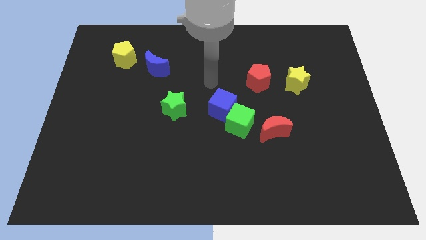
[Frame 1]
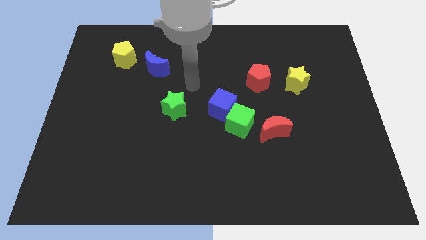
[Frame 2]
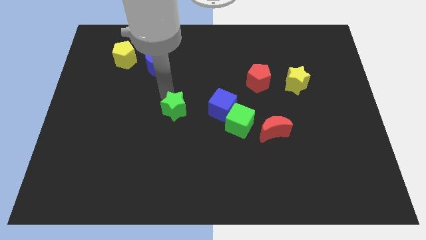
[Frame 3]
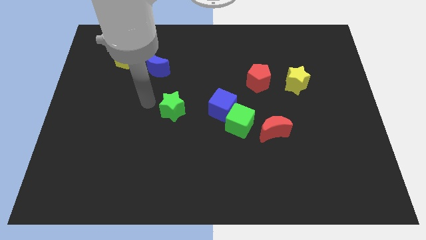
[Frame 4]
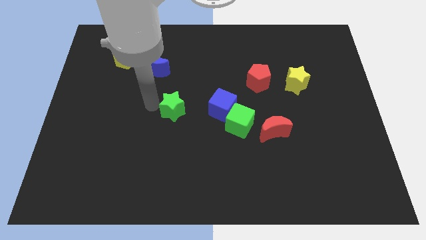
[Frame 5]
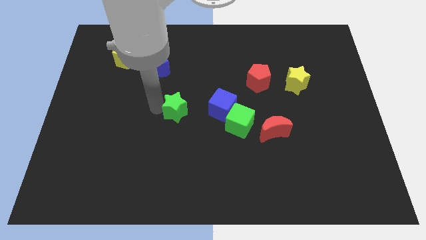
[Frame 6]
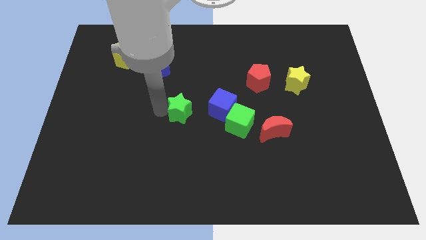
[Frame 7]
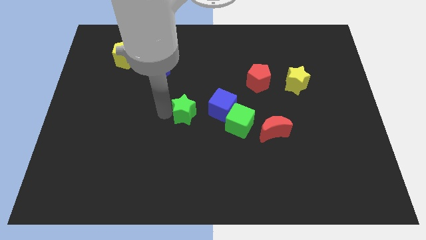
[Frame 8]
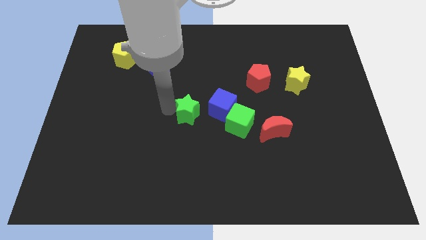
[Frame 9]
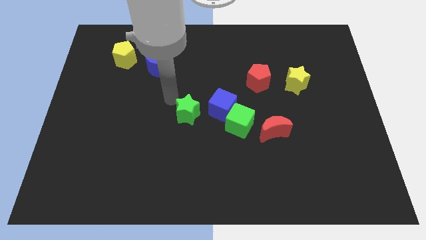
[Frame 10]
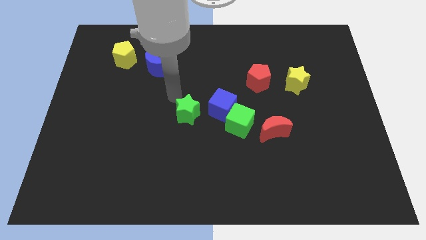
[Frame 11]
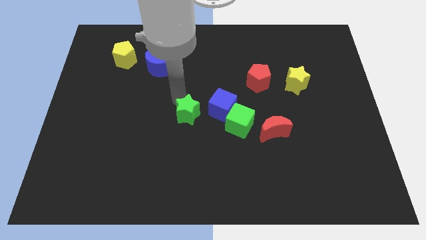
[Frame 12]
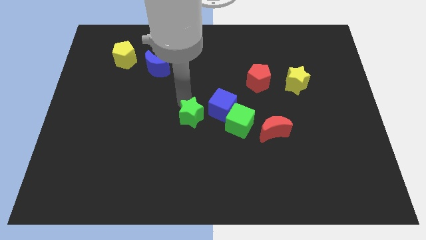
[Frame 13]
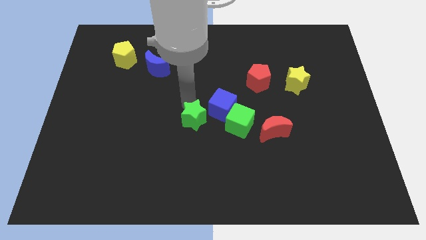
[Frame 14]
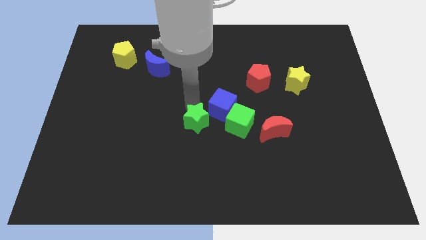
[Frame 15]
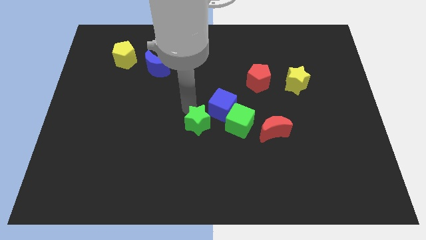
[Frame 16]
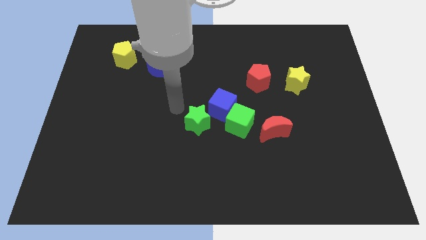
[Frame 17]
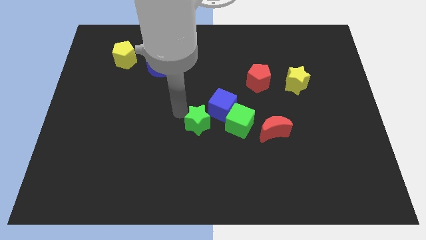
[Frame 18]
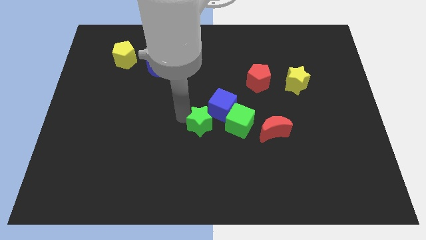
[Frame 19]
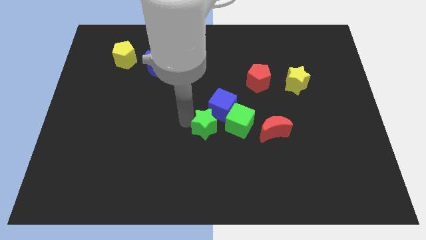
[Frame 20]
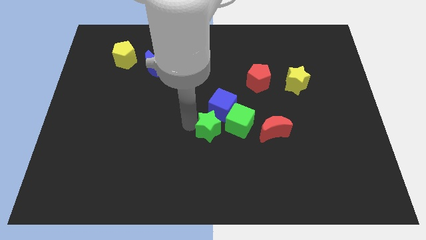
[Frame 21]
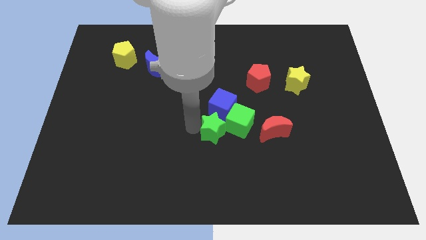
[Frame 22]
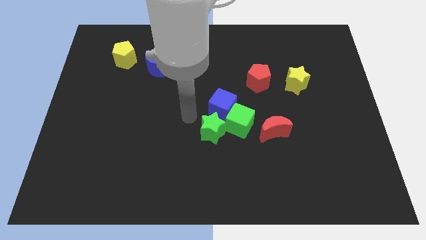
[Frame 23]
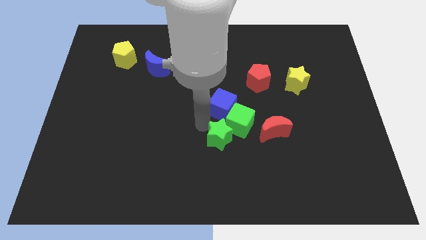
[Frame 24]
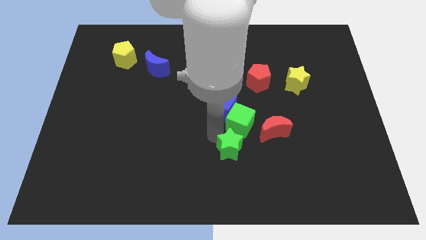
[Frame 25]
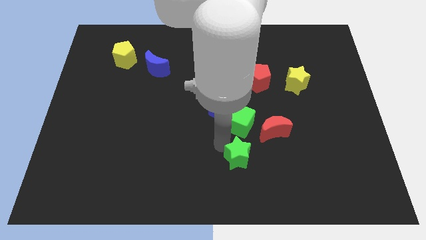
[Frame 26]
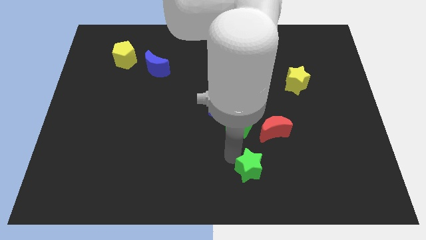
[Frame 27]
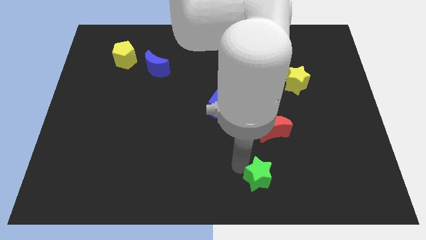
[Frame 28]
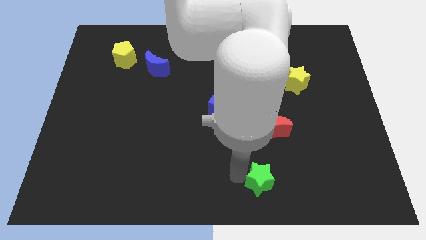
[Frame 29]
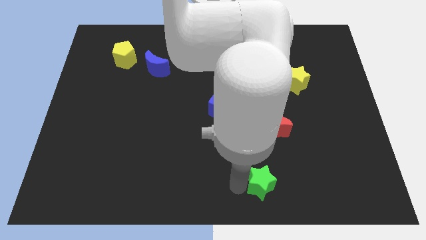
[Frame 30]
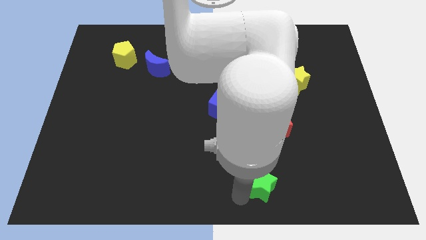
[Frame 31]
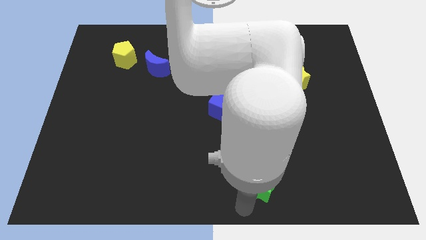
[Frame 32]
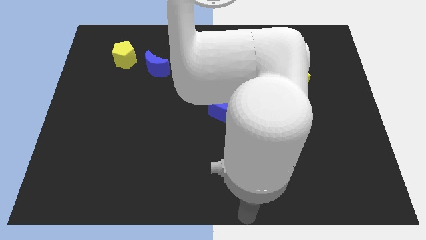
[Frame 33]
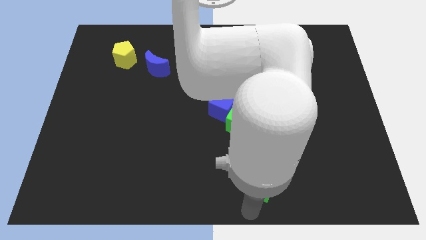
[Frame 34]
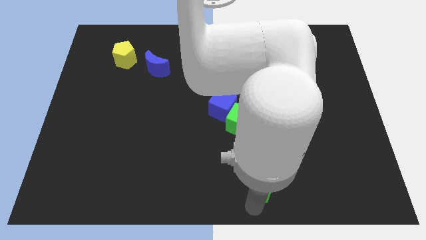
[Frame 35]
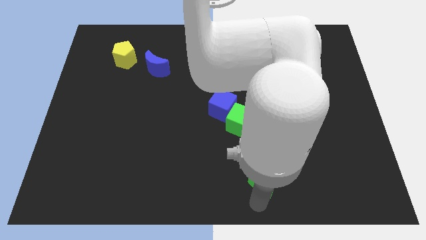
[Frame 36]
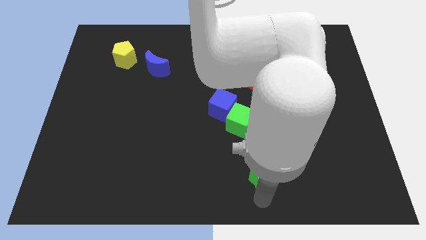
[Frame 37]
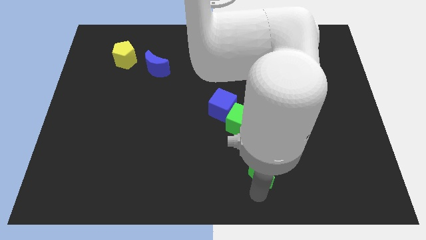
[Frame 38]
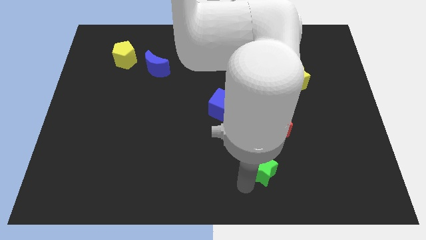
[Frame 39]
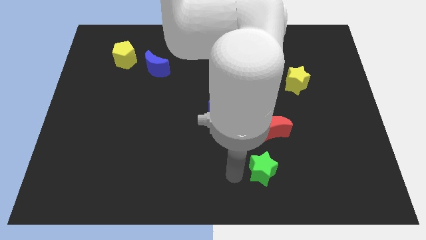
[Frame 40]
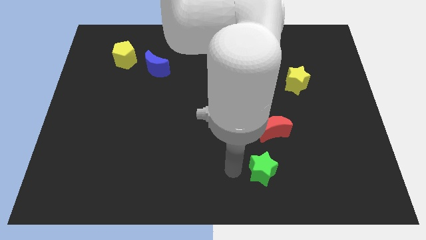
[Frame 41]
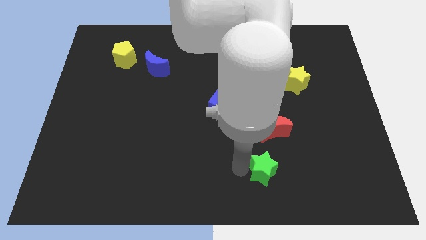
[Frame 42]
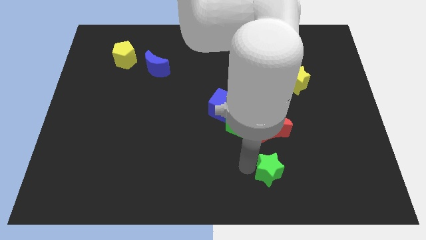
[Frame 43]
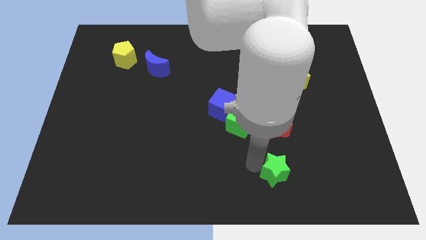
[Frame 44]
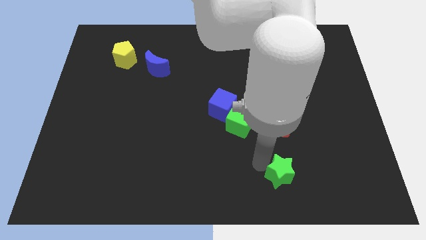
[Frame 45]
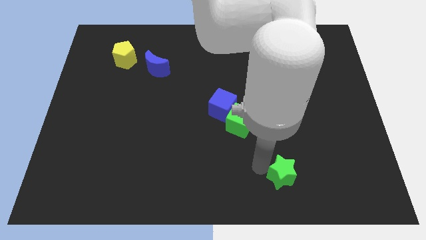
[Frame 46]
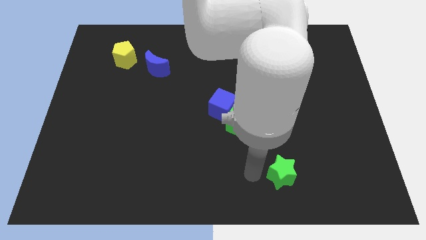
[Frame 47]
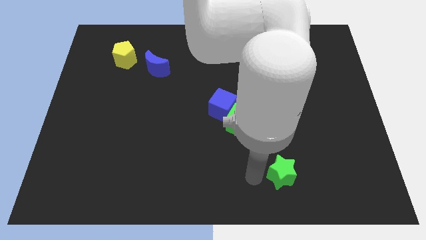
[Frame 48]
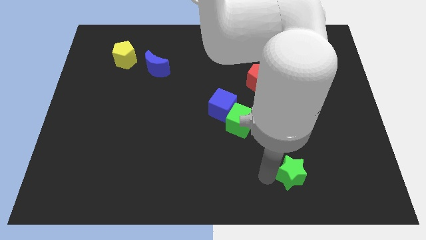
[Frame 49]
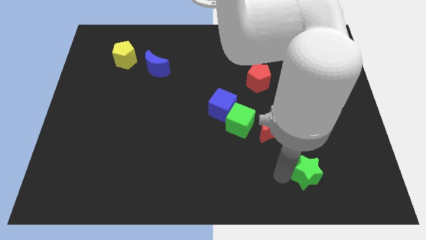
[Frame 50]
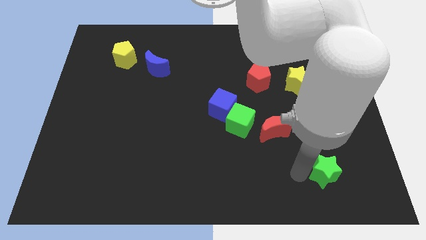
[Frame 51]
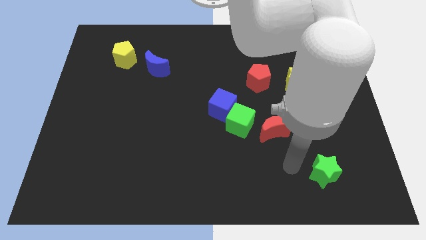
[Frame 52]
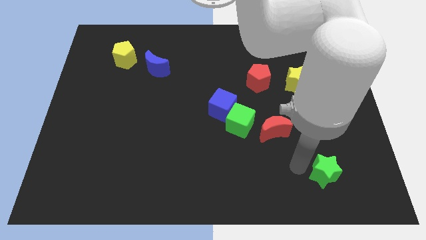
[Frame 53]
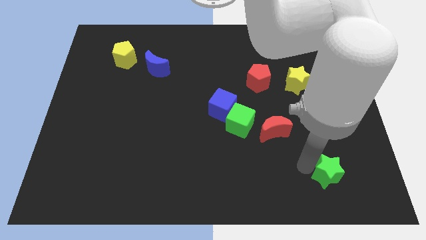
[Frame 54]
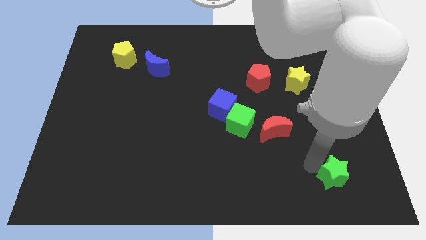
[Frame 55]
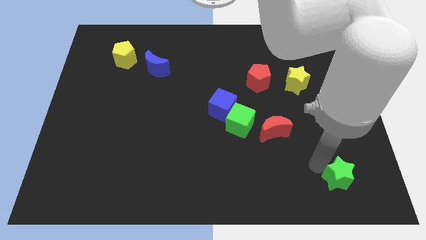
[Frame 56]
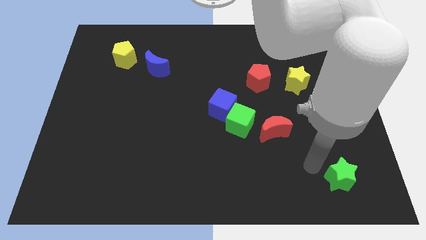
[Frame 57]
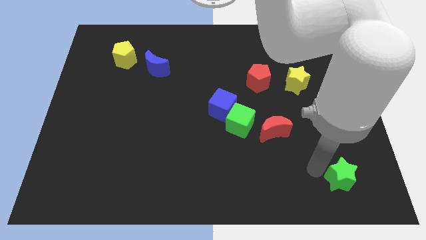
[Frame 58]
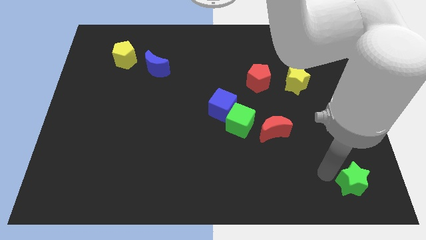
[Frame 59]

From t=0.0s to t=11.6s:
put the green star to the lower right corner
